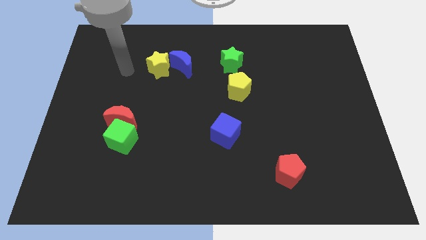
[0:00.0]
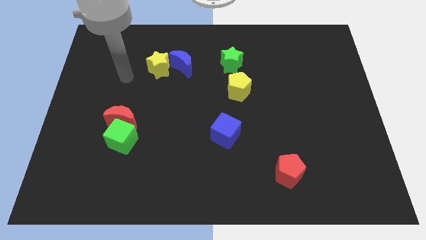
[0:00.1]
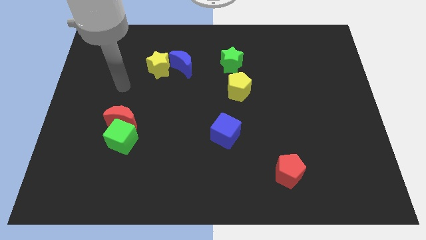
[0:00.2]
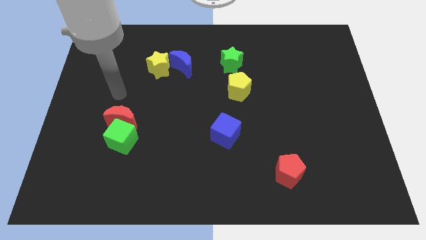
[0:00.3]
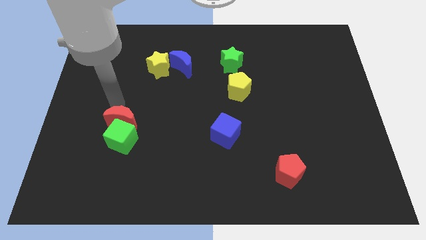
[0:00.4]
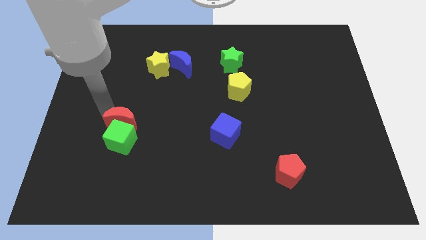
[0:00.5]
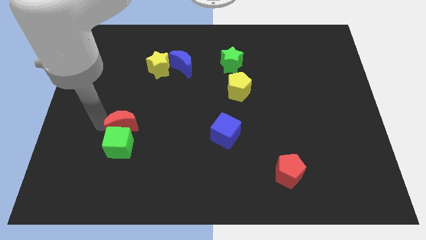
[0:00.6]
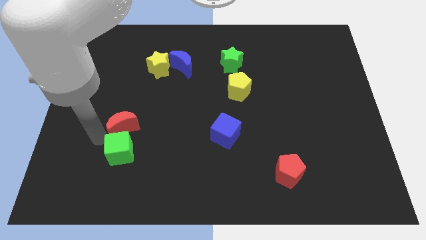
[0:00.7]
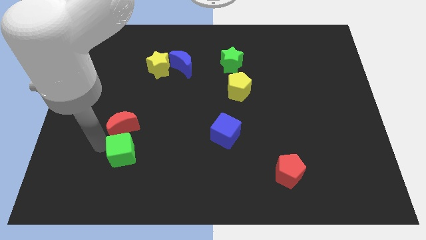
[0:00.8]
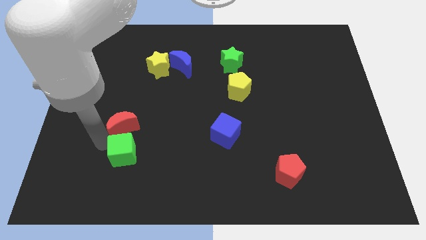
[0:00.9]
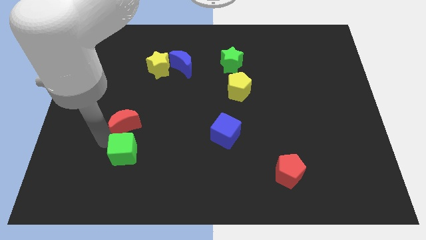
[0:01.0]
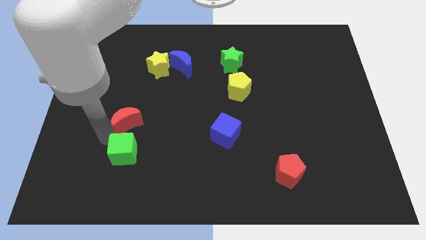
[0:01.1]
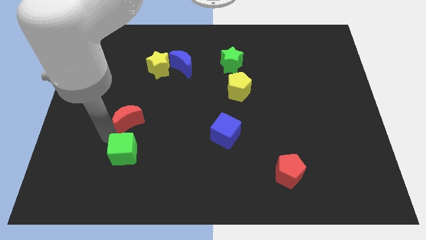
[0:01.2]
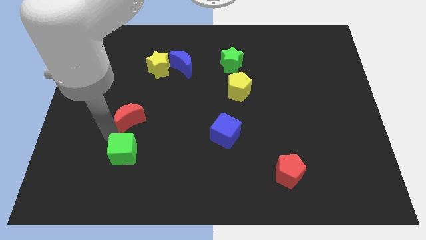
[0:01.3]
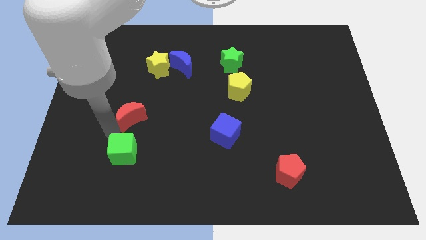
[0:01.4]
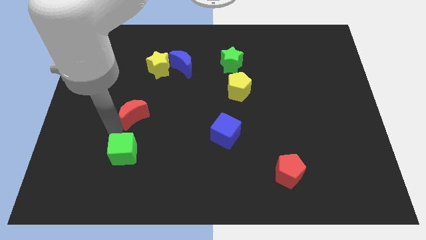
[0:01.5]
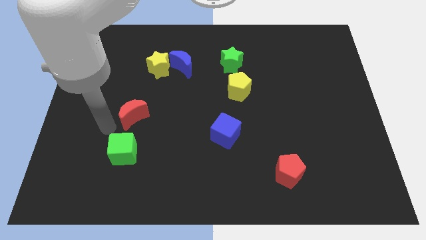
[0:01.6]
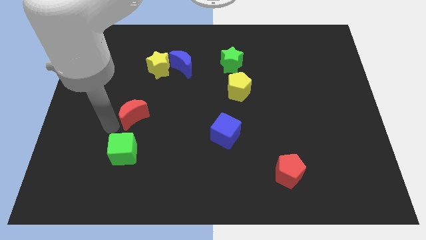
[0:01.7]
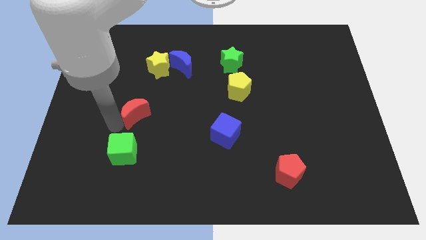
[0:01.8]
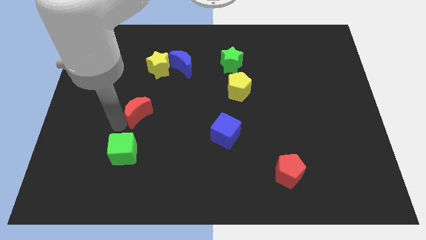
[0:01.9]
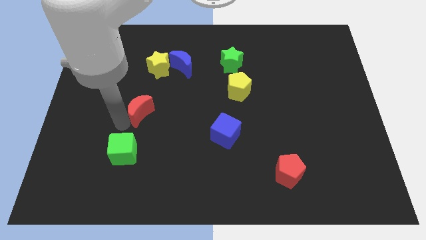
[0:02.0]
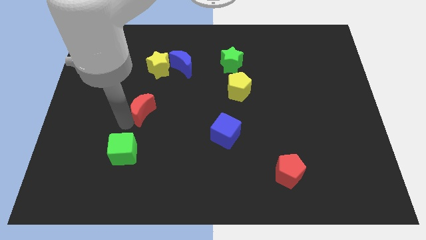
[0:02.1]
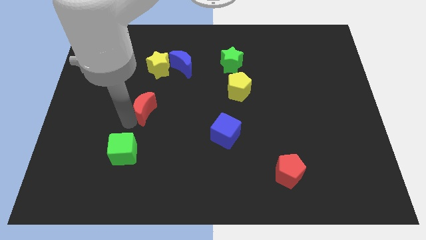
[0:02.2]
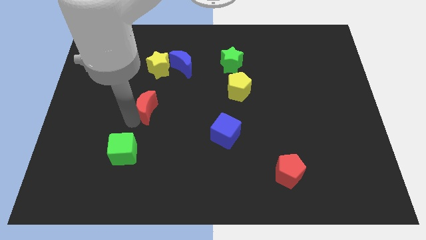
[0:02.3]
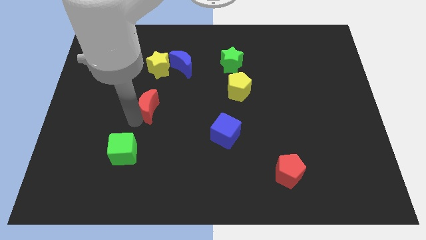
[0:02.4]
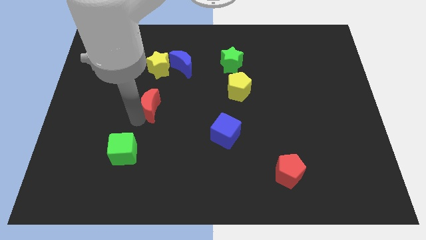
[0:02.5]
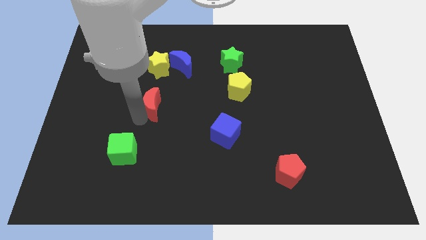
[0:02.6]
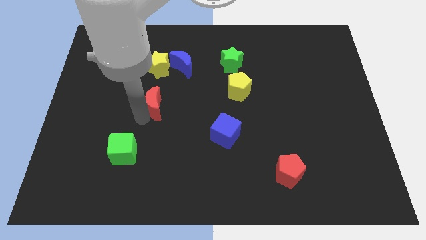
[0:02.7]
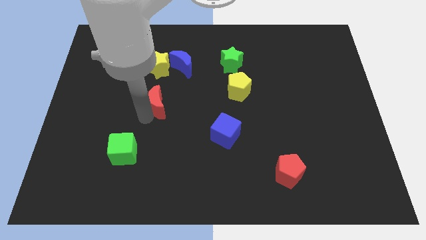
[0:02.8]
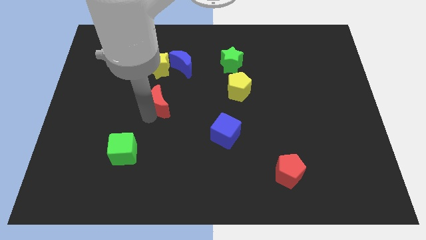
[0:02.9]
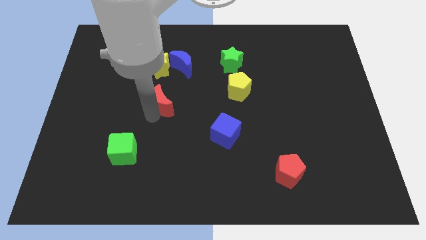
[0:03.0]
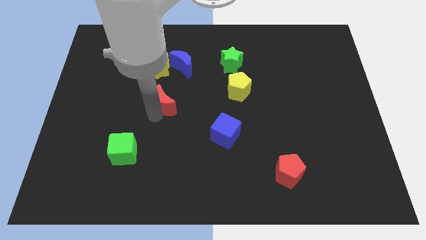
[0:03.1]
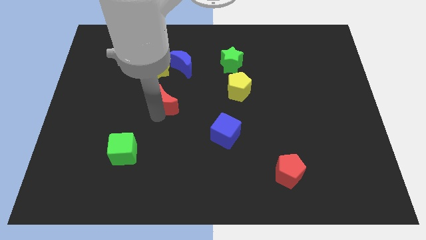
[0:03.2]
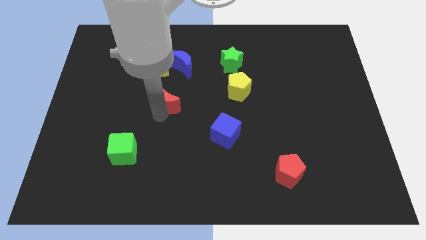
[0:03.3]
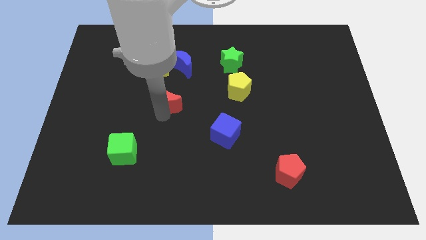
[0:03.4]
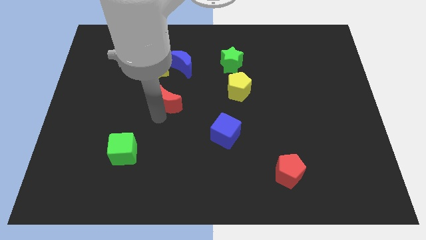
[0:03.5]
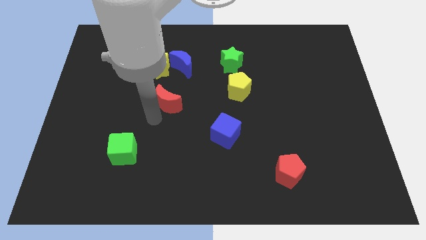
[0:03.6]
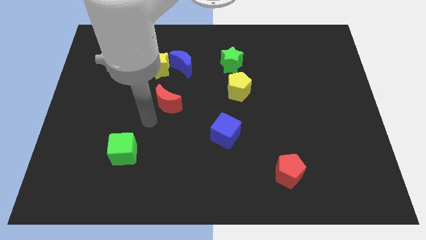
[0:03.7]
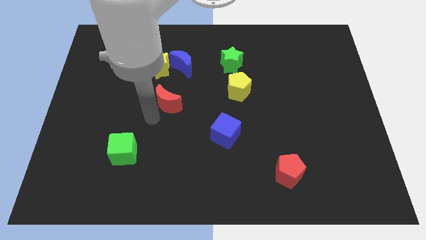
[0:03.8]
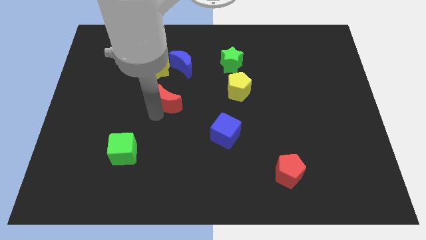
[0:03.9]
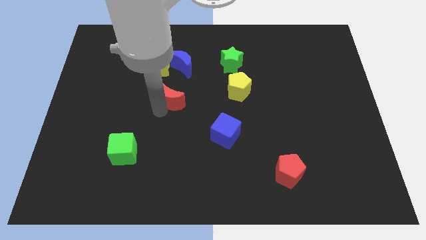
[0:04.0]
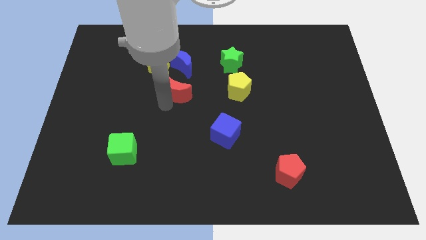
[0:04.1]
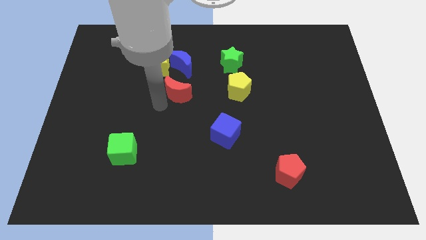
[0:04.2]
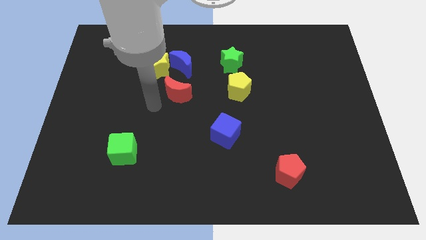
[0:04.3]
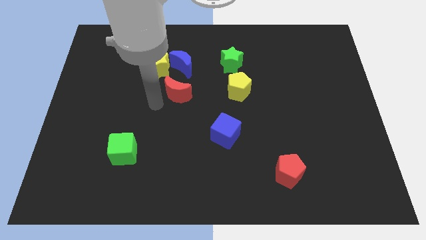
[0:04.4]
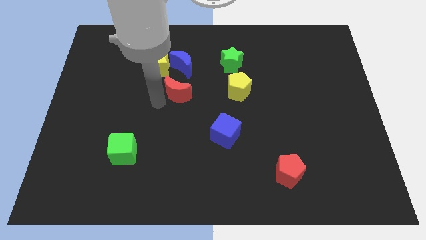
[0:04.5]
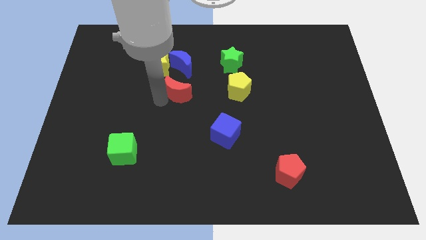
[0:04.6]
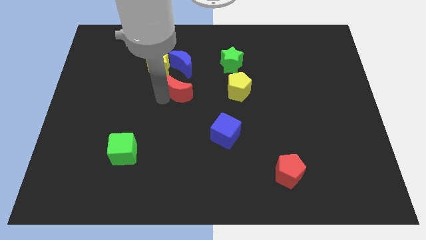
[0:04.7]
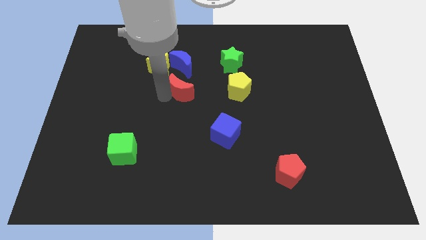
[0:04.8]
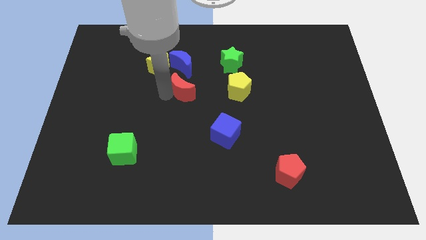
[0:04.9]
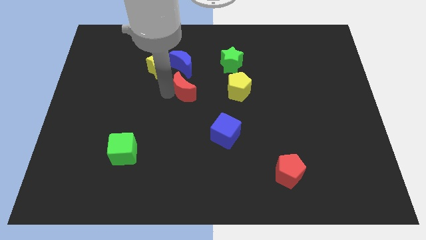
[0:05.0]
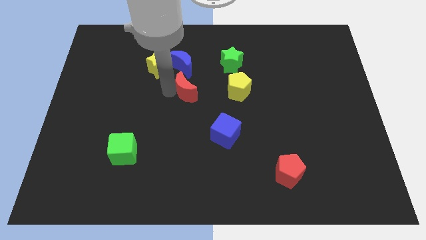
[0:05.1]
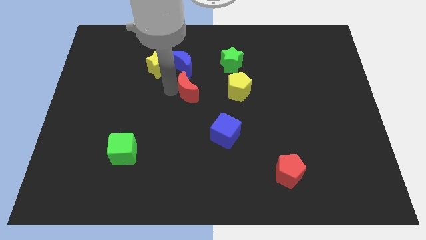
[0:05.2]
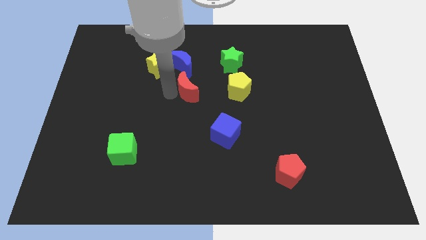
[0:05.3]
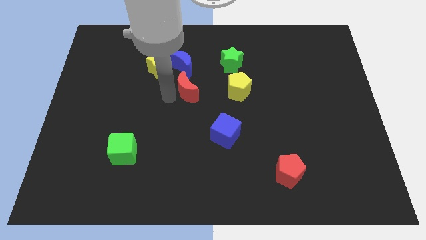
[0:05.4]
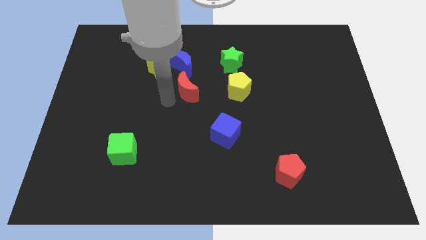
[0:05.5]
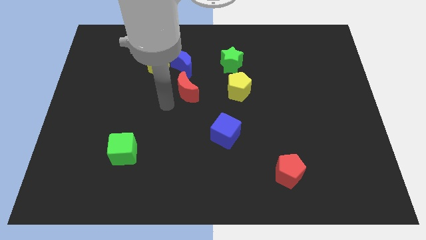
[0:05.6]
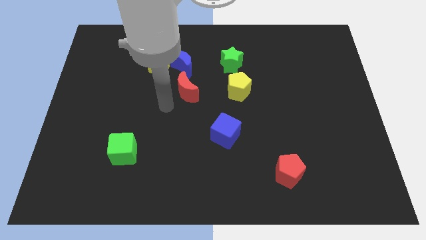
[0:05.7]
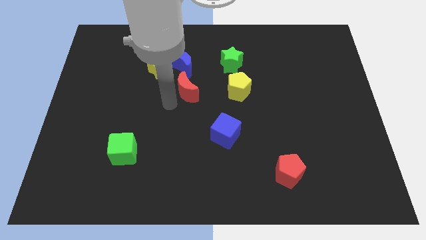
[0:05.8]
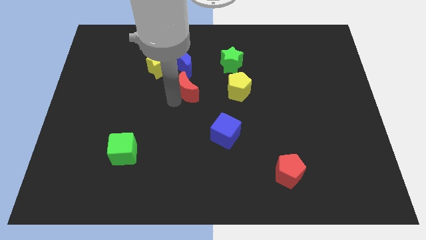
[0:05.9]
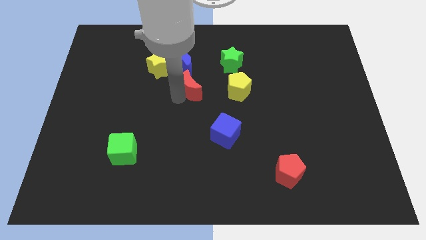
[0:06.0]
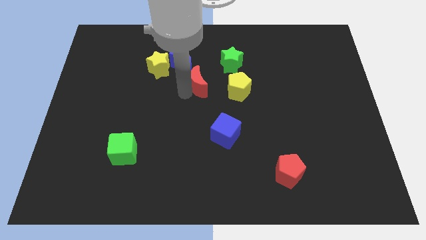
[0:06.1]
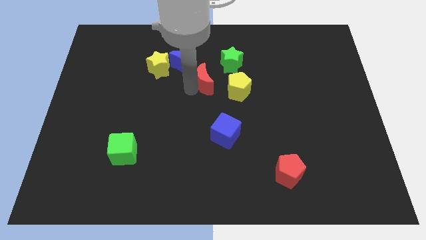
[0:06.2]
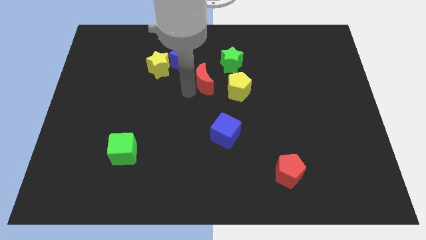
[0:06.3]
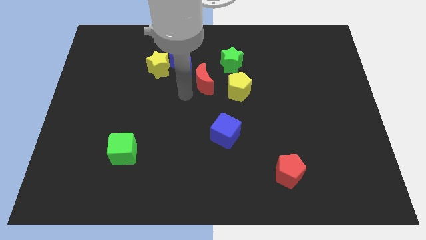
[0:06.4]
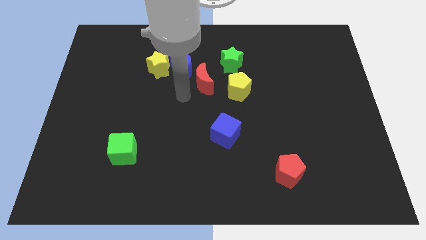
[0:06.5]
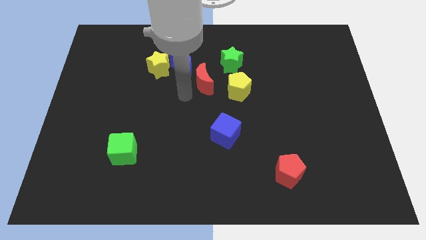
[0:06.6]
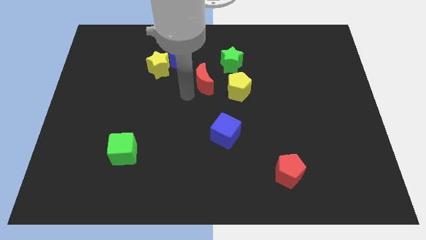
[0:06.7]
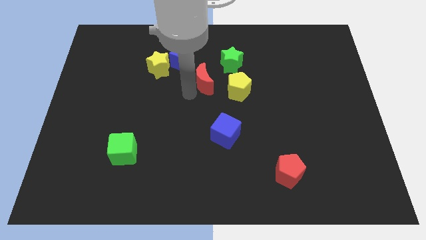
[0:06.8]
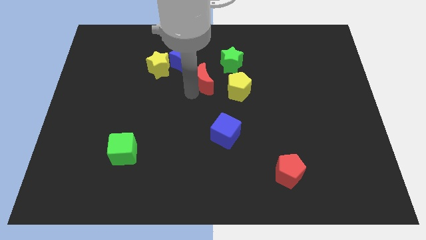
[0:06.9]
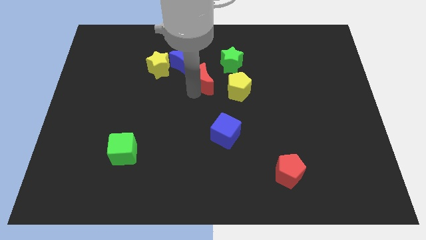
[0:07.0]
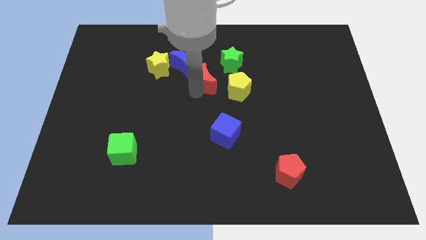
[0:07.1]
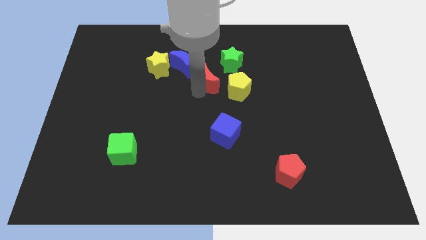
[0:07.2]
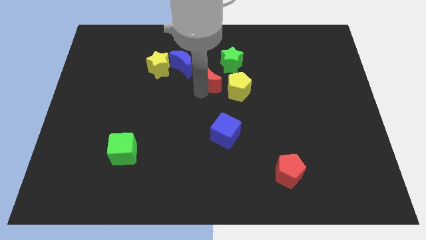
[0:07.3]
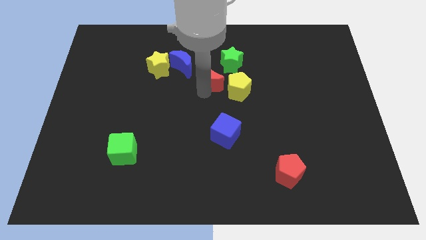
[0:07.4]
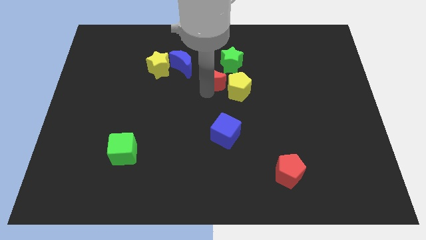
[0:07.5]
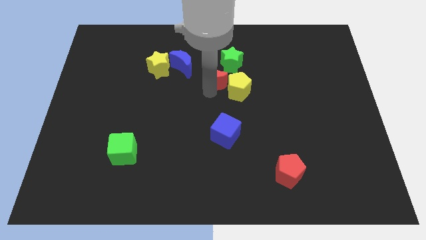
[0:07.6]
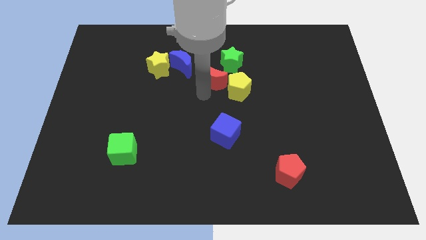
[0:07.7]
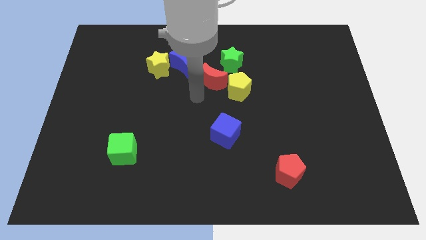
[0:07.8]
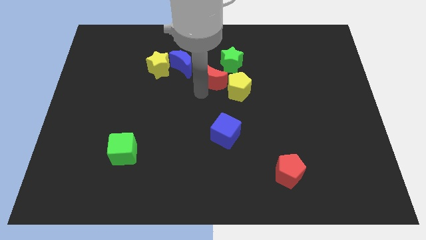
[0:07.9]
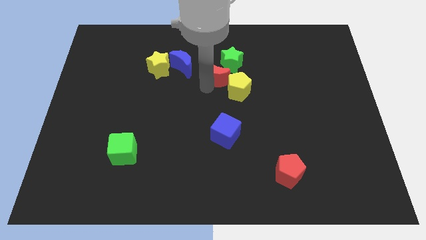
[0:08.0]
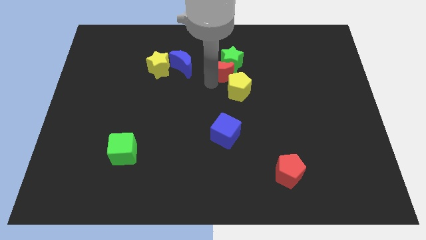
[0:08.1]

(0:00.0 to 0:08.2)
push the red moon close to the green star
